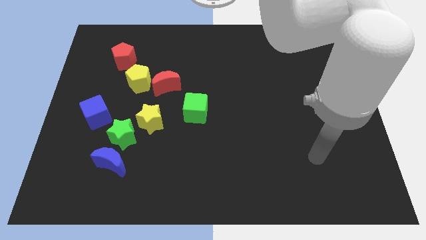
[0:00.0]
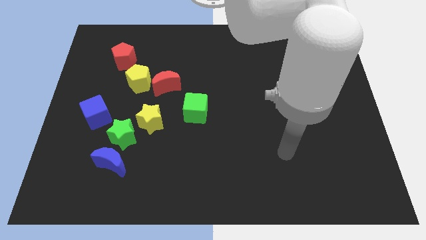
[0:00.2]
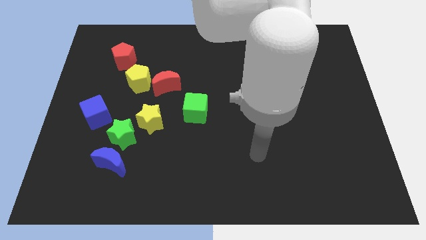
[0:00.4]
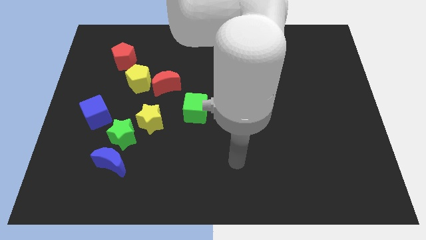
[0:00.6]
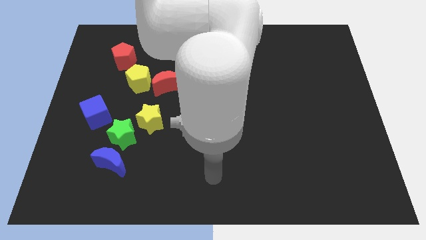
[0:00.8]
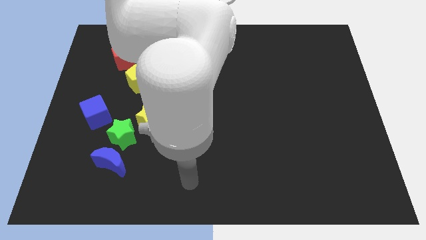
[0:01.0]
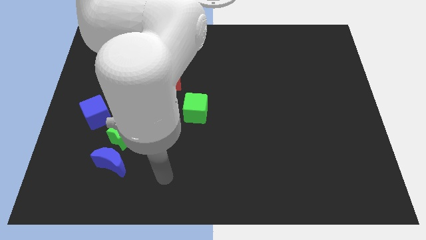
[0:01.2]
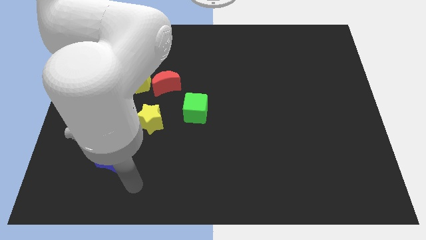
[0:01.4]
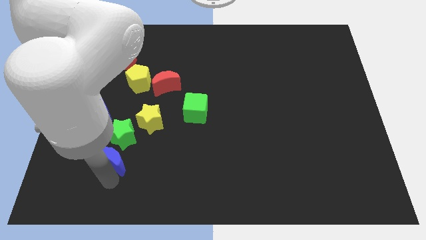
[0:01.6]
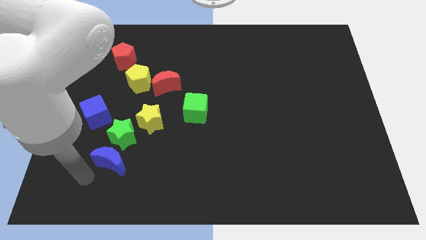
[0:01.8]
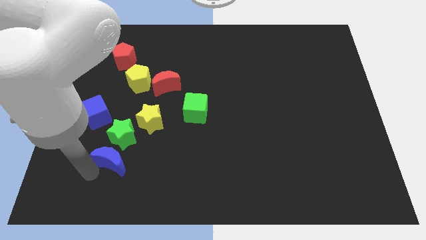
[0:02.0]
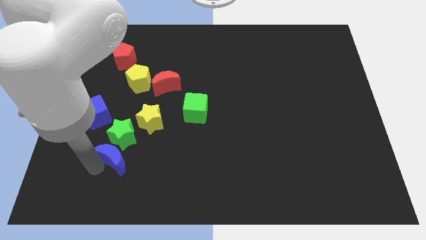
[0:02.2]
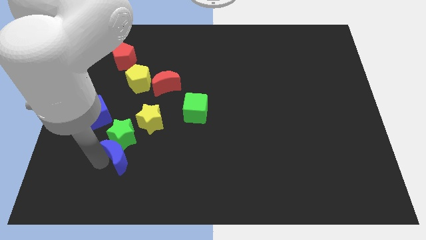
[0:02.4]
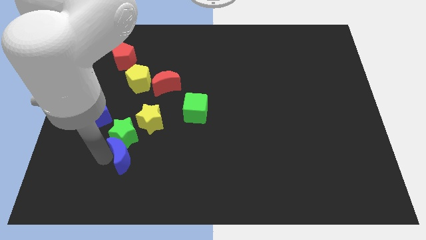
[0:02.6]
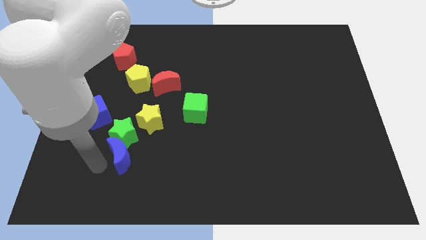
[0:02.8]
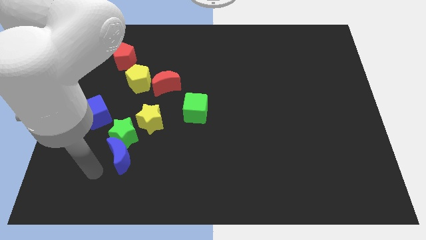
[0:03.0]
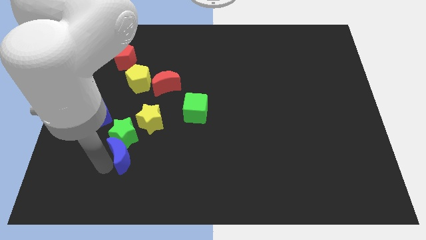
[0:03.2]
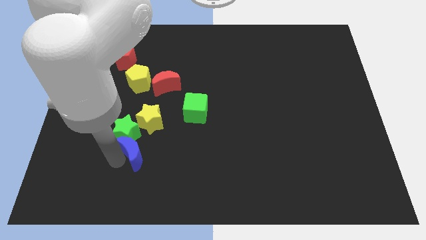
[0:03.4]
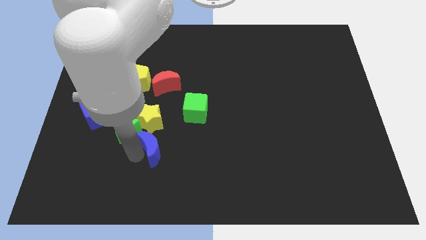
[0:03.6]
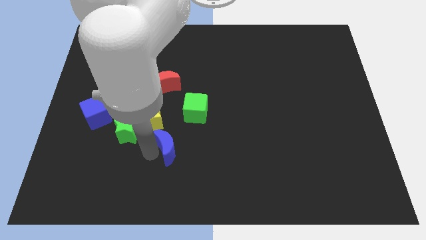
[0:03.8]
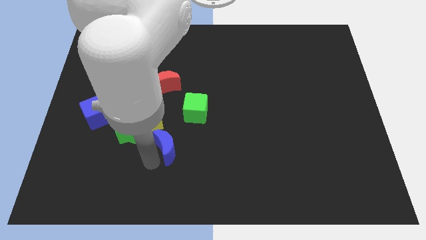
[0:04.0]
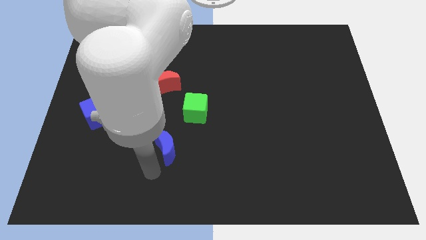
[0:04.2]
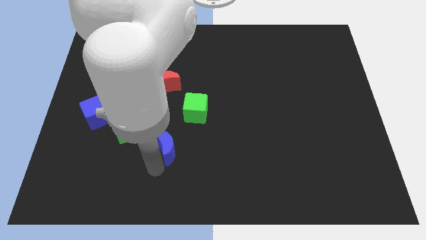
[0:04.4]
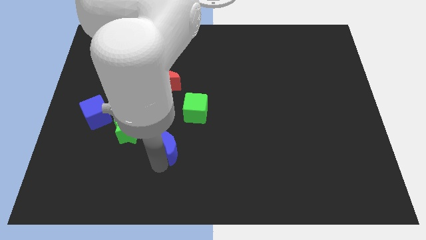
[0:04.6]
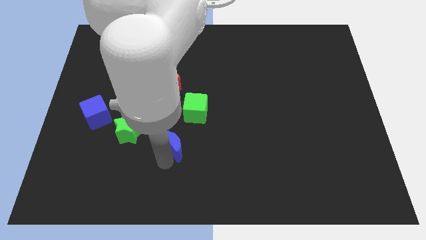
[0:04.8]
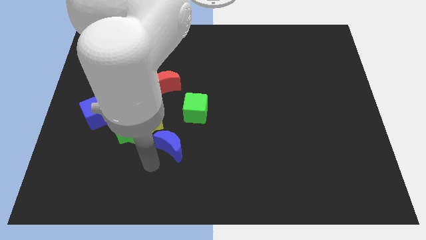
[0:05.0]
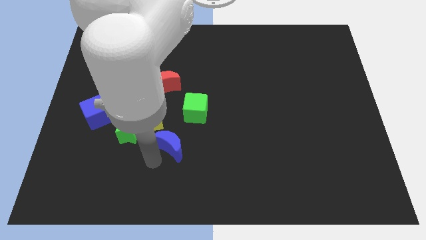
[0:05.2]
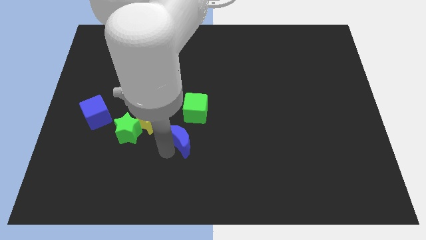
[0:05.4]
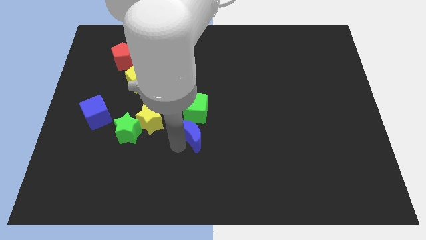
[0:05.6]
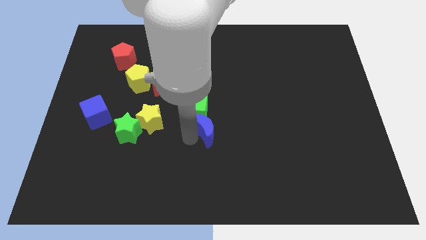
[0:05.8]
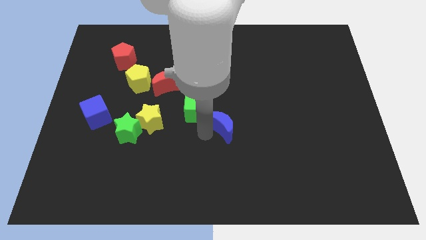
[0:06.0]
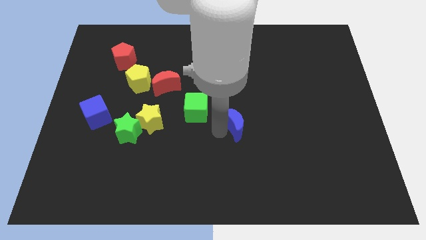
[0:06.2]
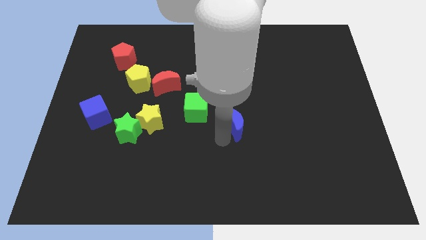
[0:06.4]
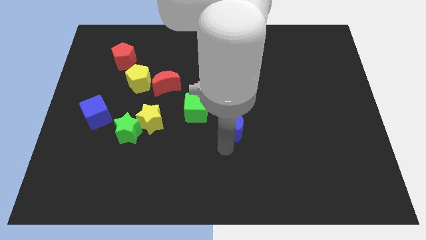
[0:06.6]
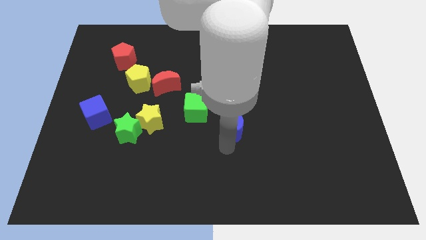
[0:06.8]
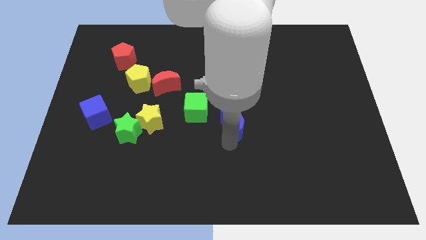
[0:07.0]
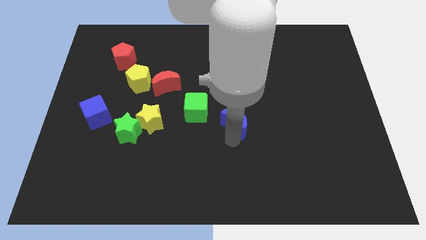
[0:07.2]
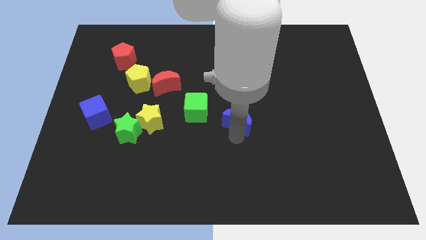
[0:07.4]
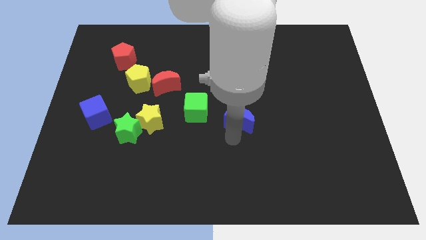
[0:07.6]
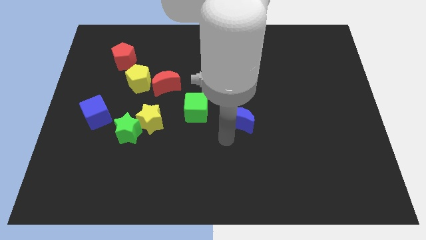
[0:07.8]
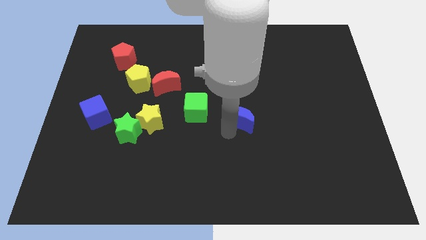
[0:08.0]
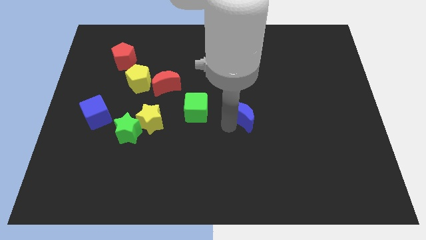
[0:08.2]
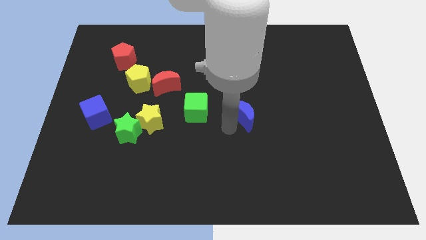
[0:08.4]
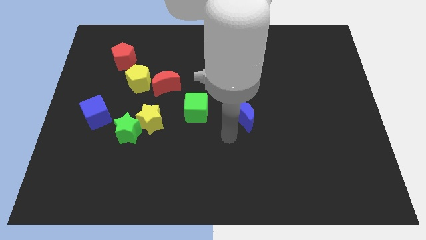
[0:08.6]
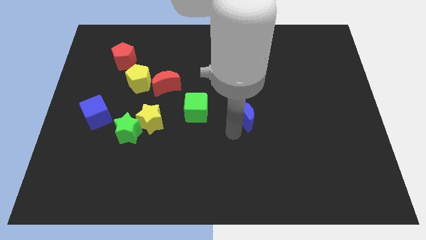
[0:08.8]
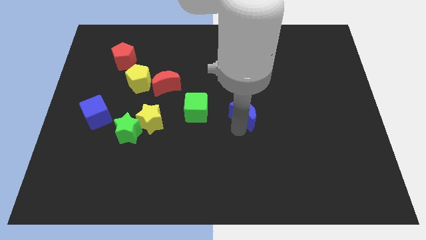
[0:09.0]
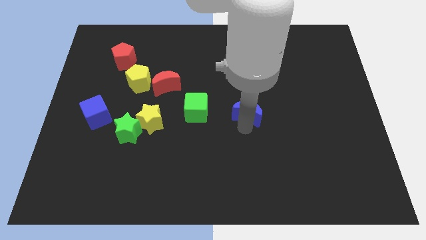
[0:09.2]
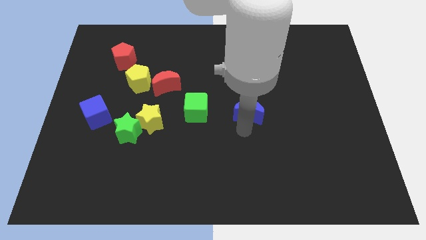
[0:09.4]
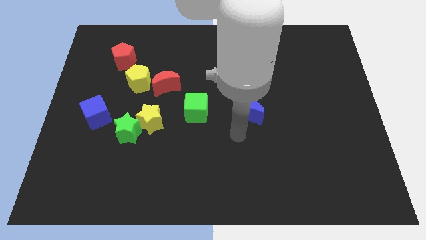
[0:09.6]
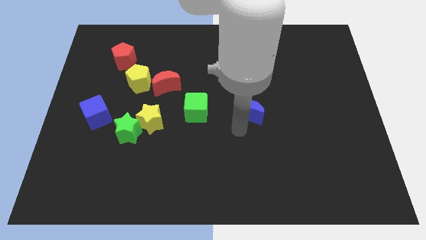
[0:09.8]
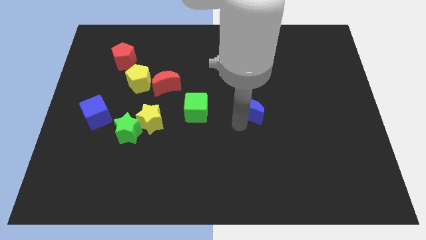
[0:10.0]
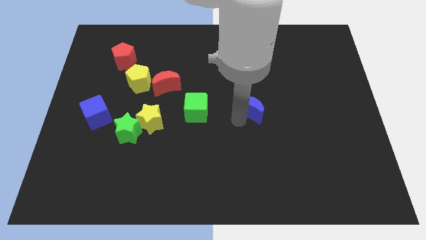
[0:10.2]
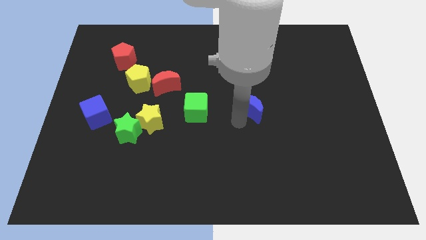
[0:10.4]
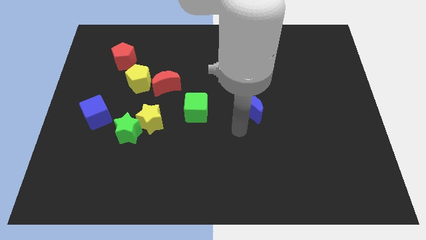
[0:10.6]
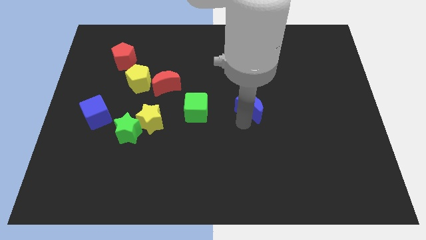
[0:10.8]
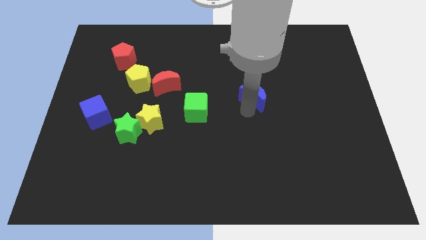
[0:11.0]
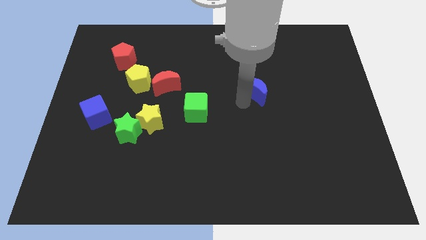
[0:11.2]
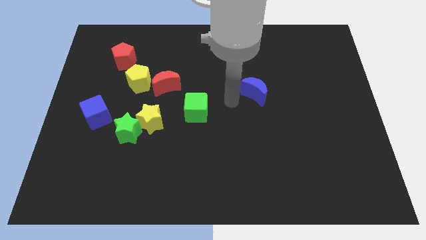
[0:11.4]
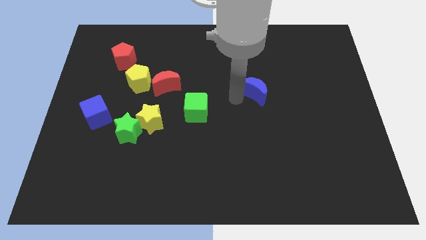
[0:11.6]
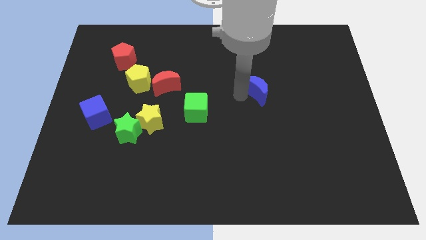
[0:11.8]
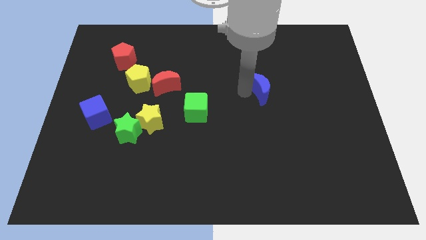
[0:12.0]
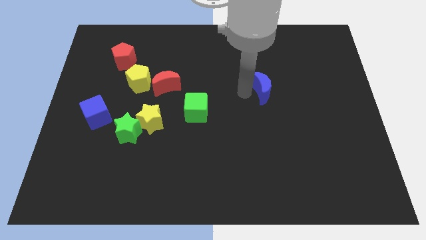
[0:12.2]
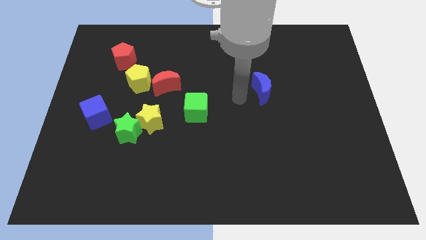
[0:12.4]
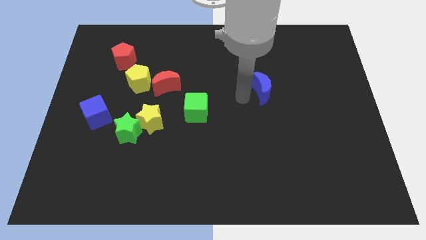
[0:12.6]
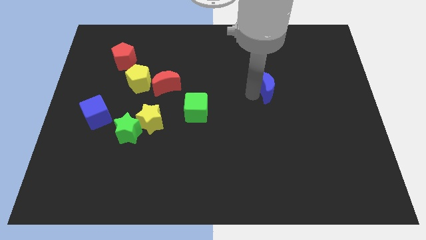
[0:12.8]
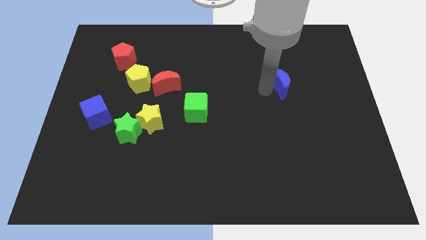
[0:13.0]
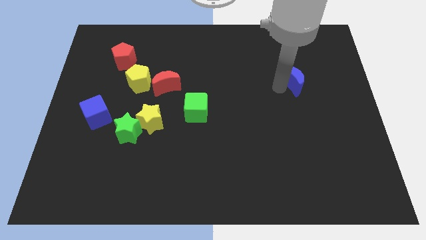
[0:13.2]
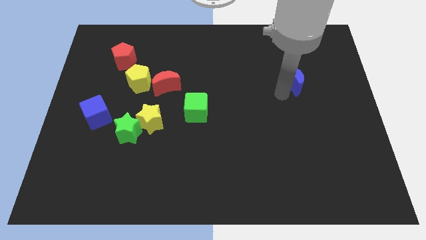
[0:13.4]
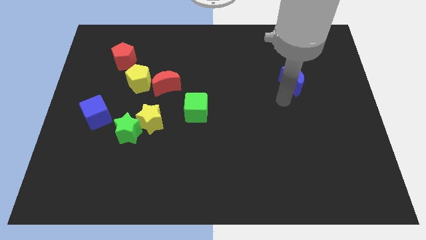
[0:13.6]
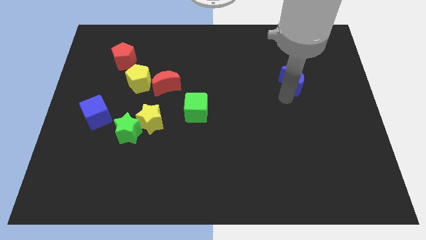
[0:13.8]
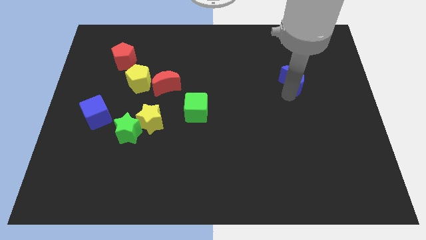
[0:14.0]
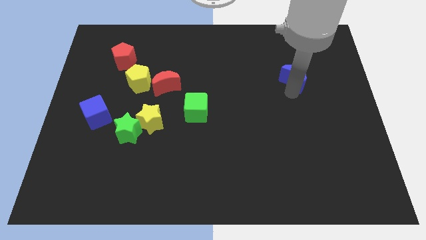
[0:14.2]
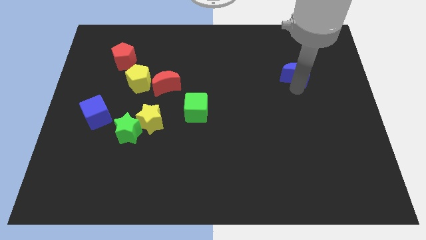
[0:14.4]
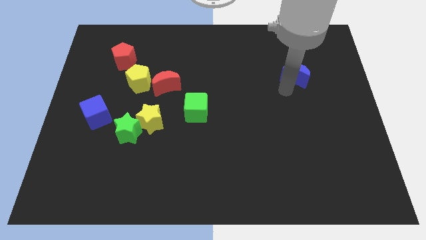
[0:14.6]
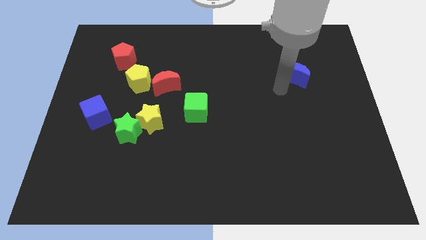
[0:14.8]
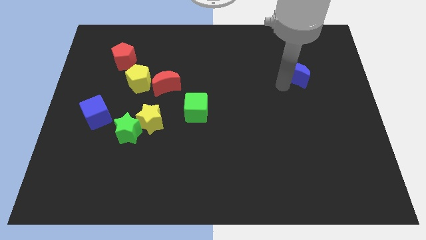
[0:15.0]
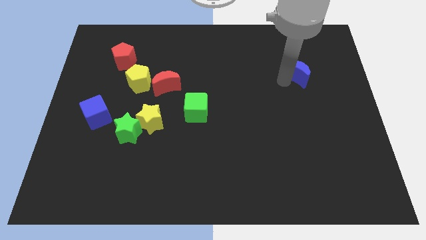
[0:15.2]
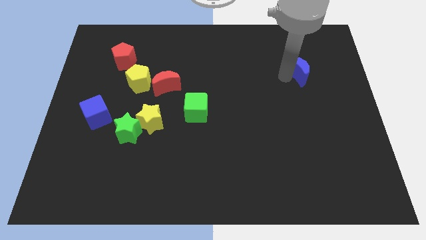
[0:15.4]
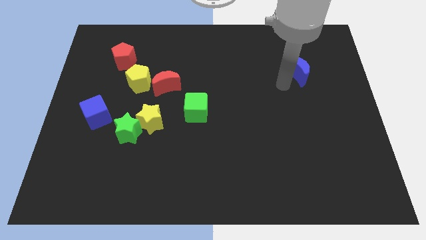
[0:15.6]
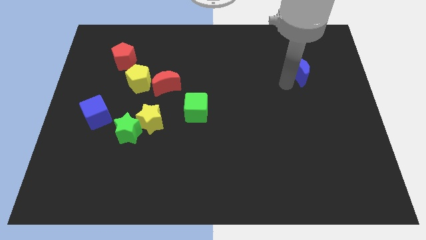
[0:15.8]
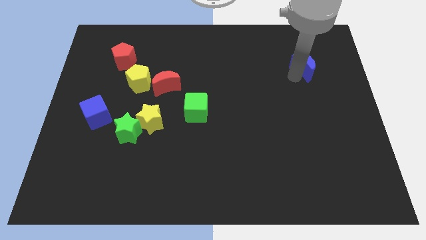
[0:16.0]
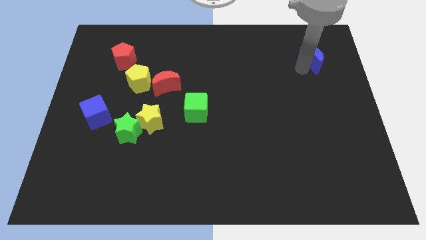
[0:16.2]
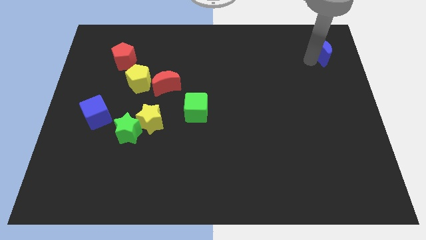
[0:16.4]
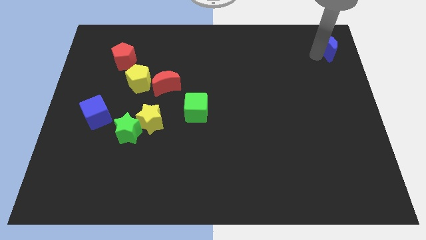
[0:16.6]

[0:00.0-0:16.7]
move the blue moon to the top right corner
